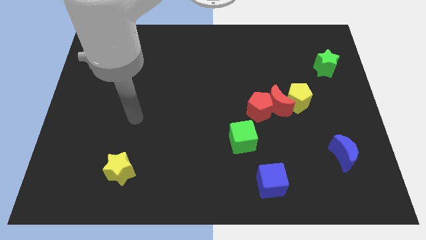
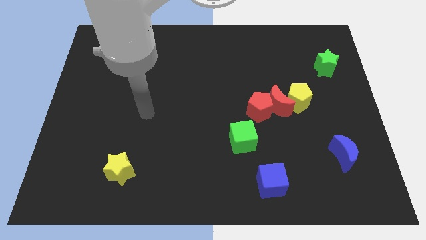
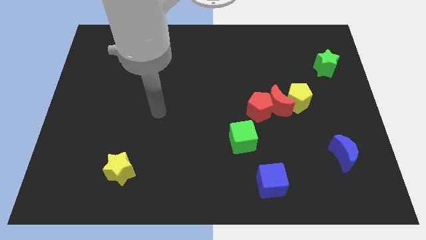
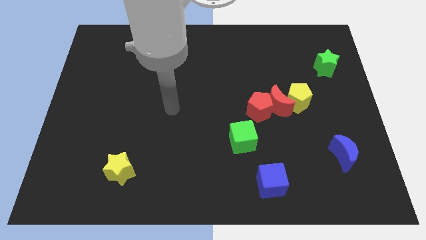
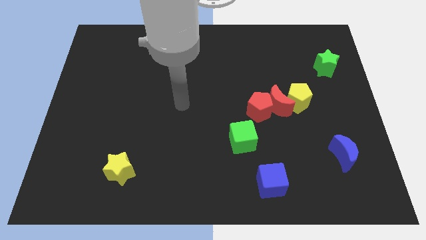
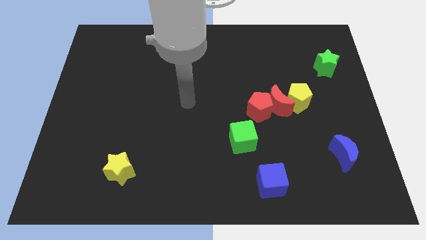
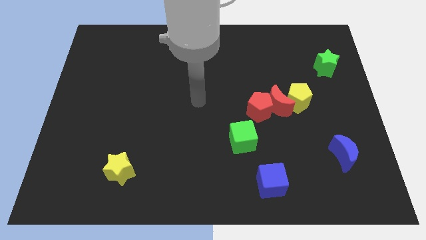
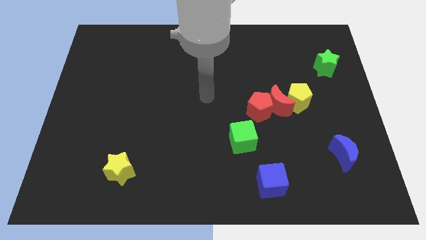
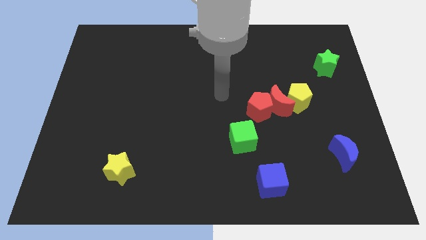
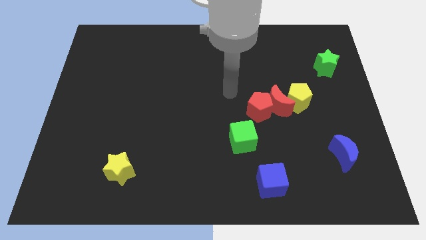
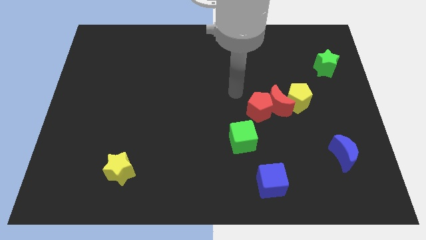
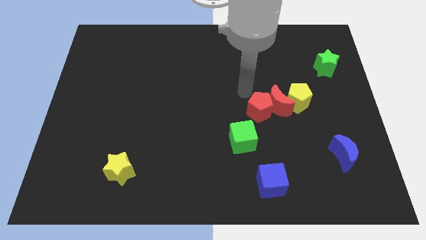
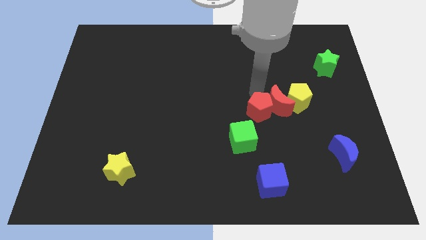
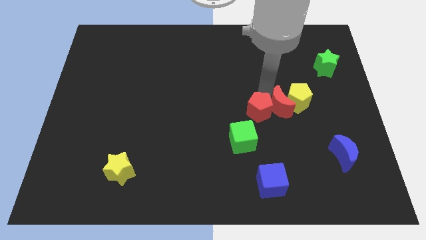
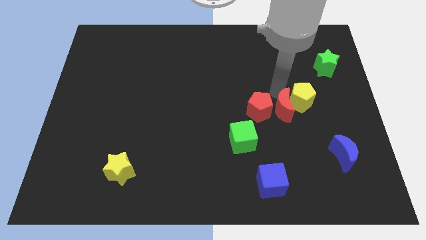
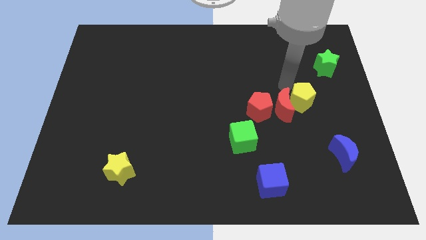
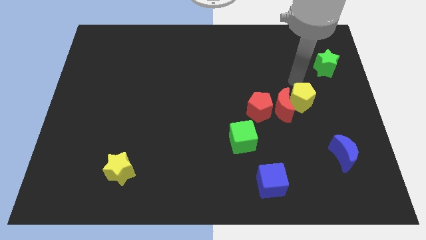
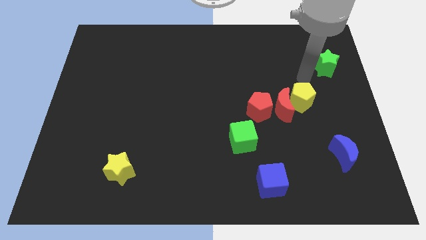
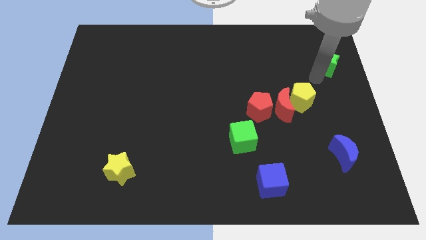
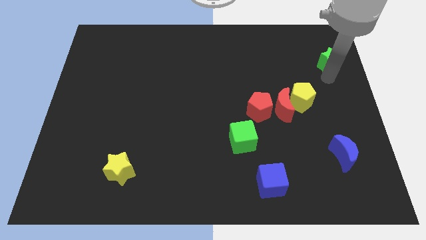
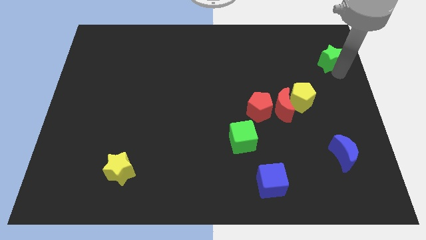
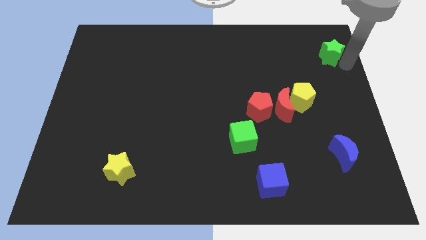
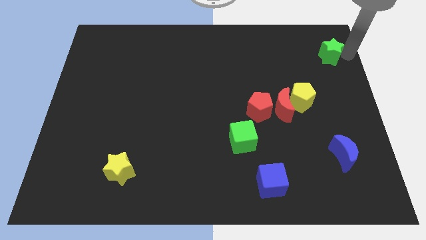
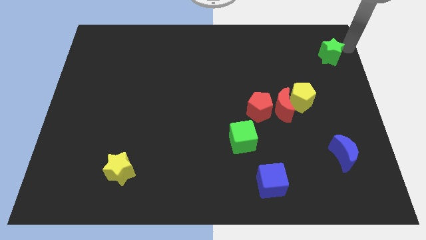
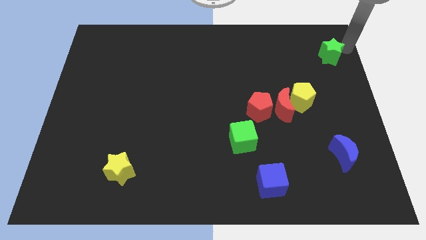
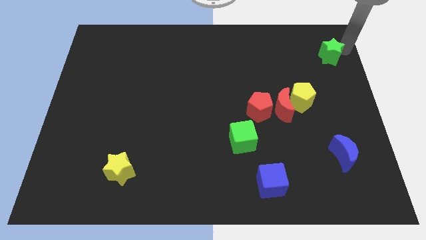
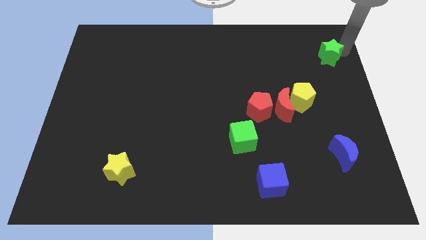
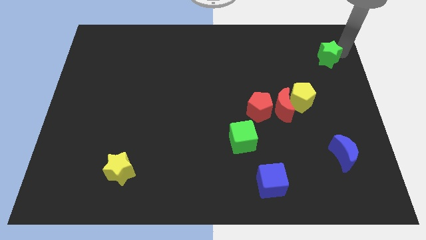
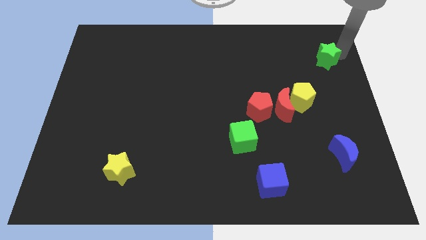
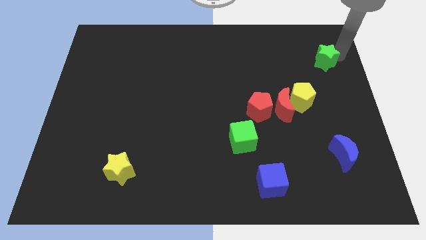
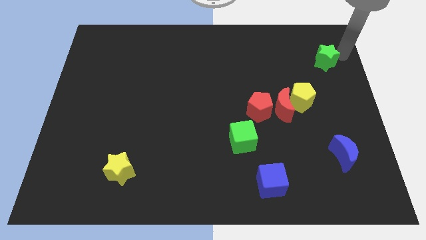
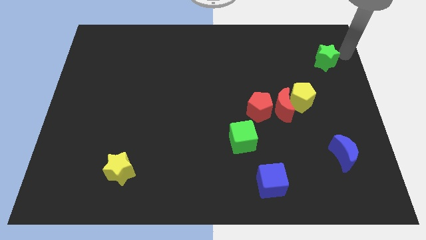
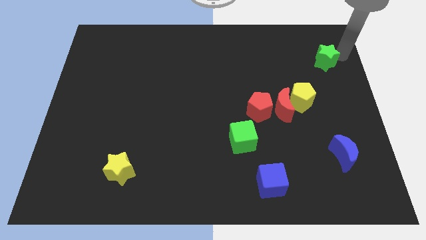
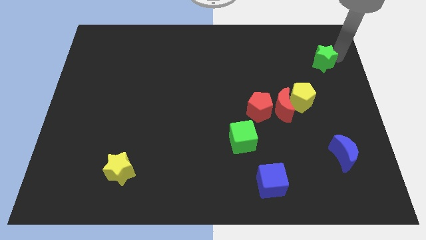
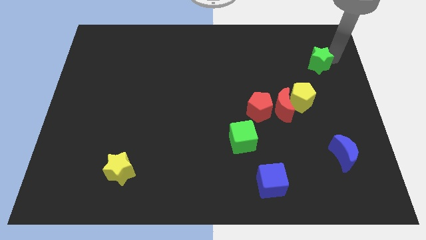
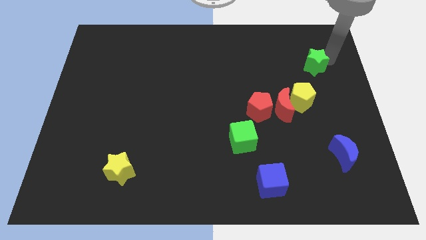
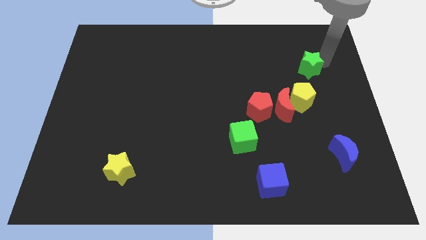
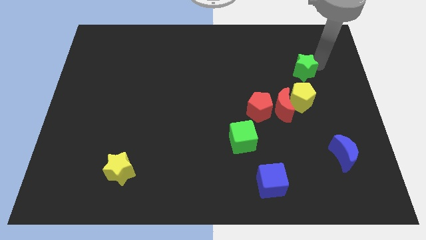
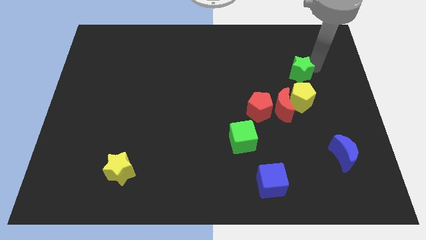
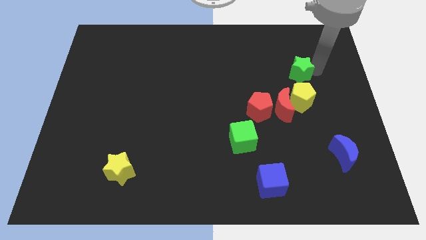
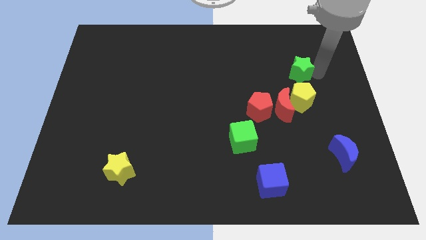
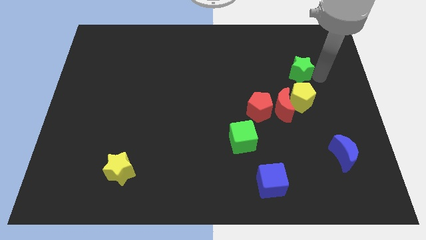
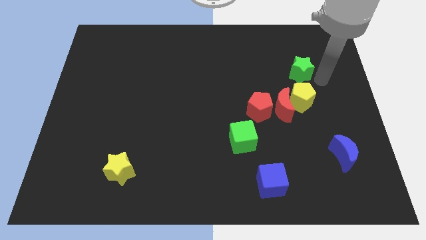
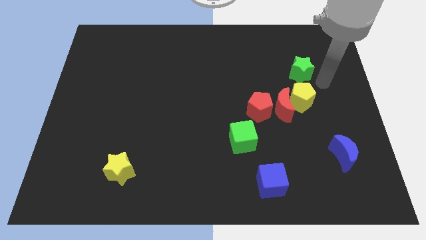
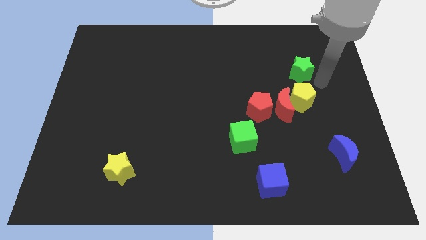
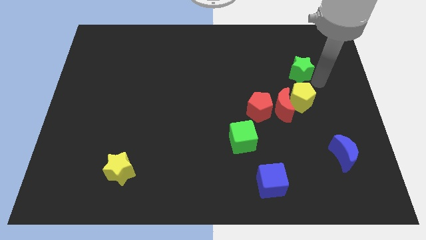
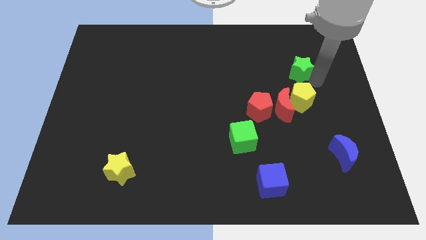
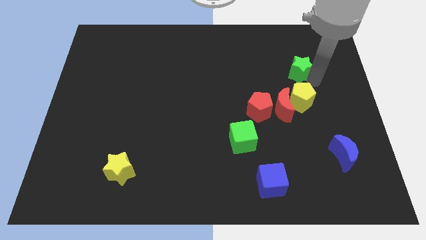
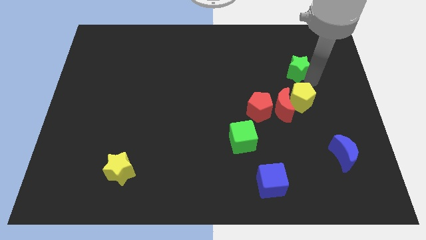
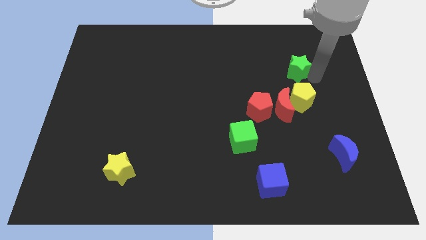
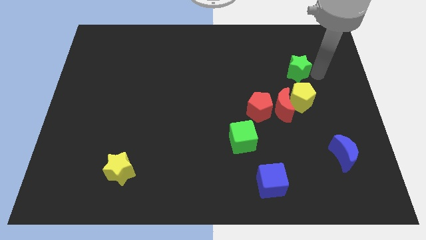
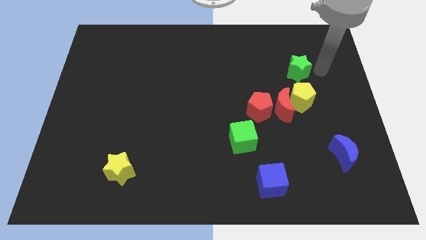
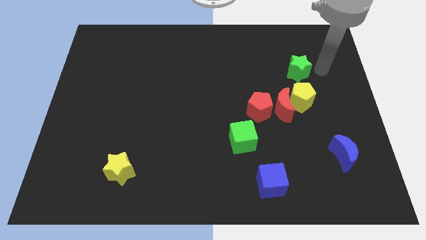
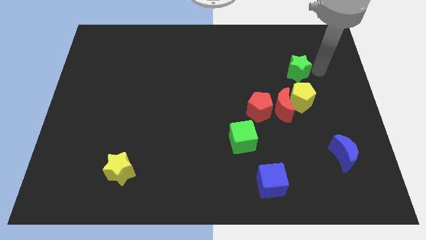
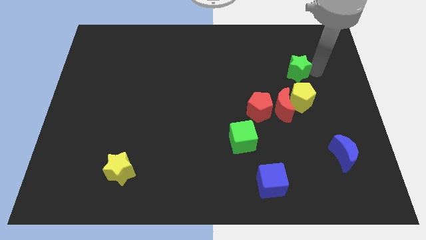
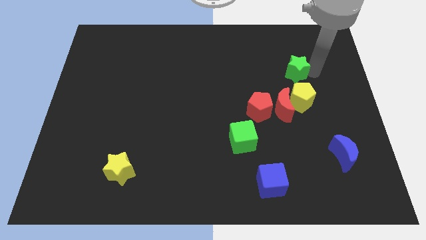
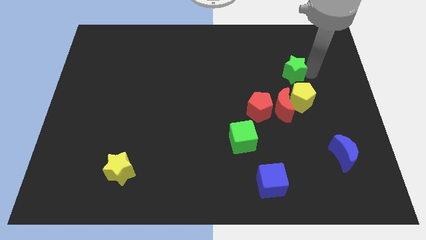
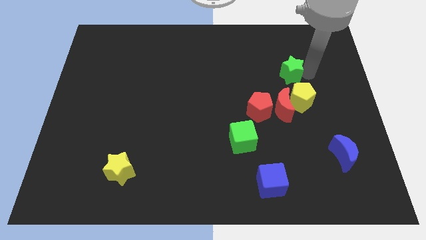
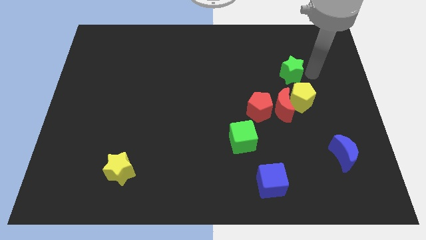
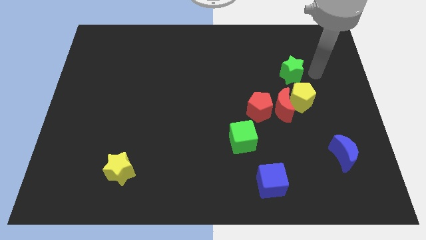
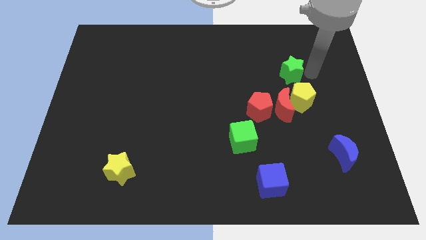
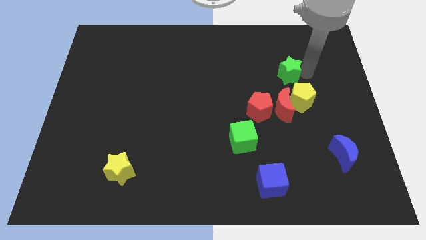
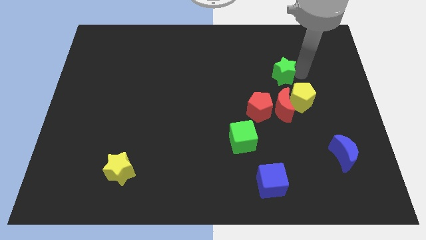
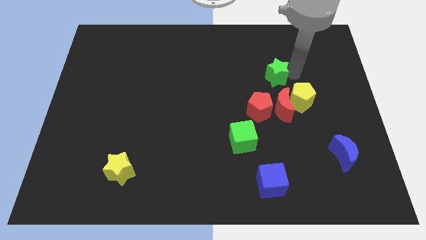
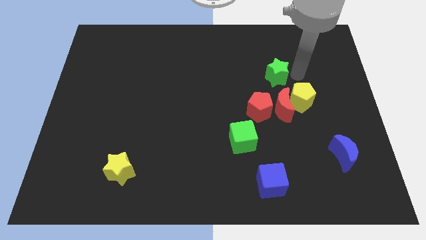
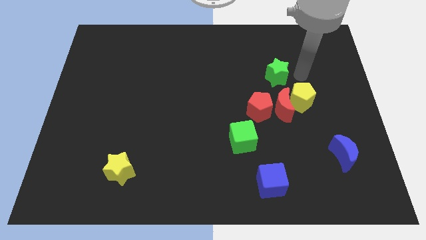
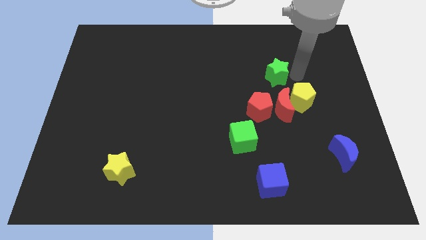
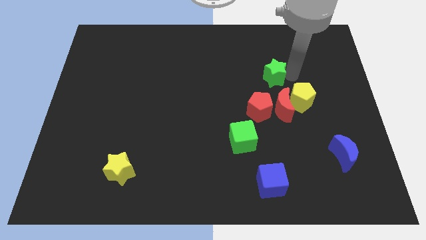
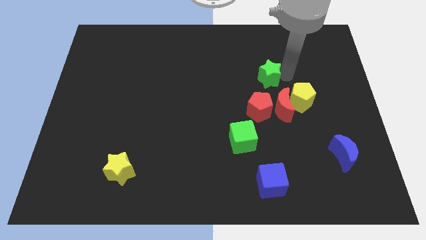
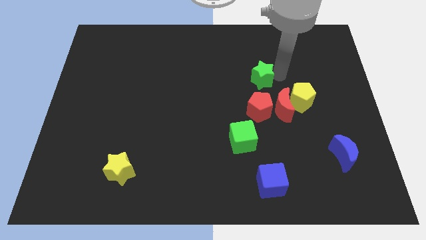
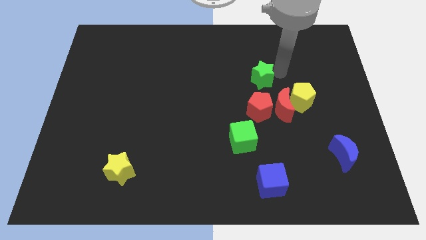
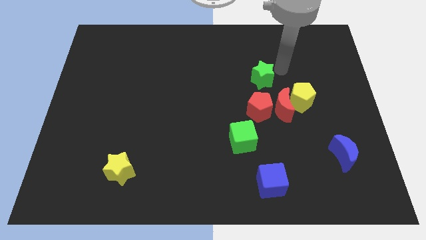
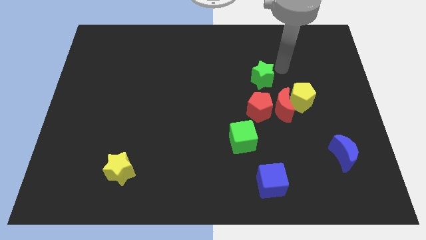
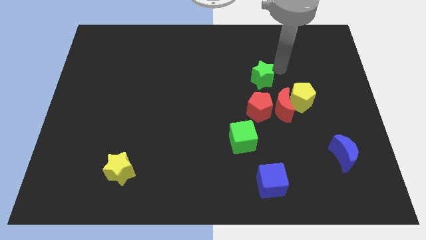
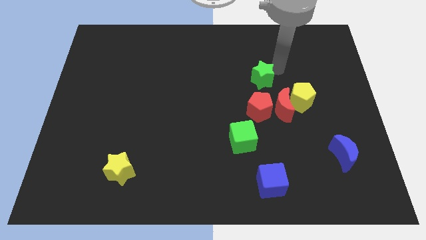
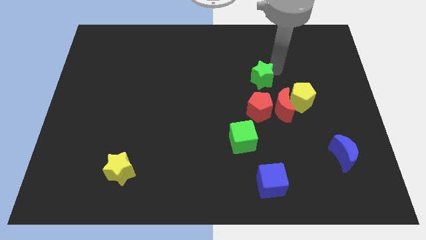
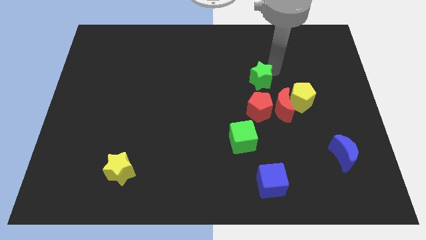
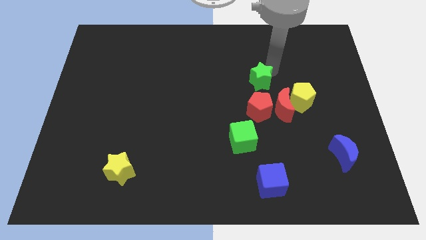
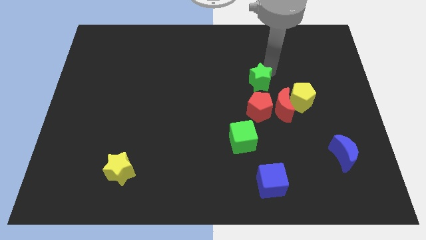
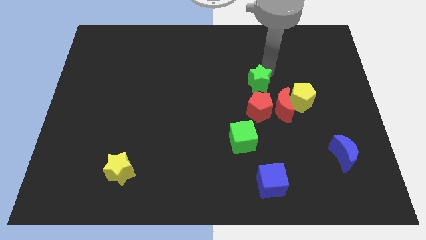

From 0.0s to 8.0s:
push the green star to the center
